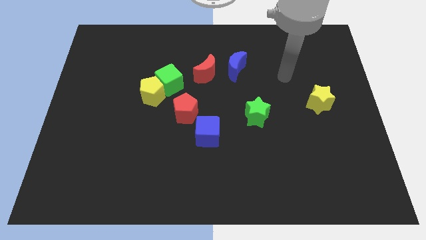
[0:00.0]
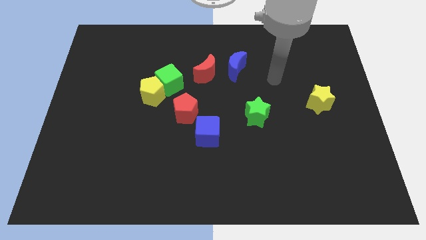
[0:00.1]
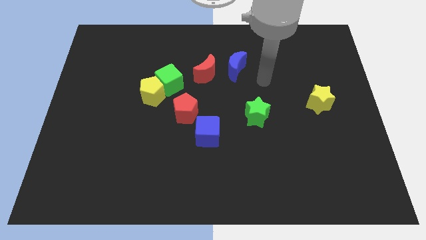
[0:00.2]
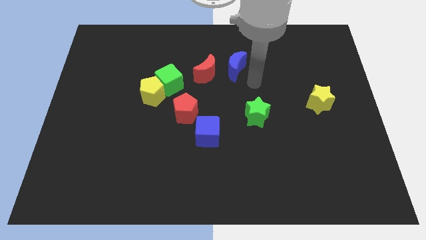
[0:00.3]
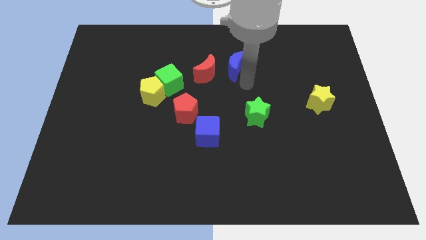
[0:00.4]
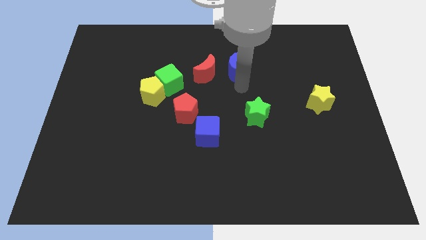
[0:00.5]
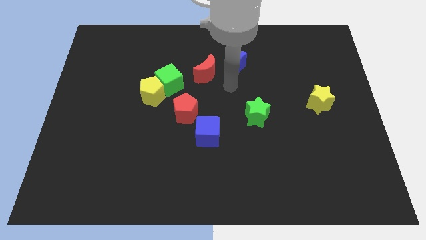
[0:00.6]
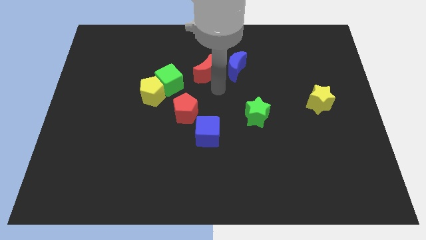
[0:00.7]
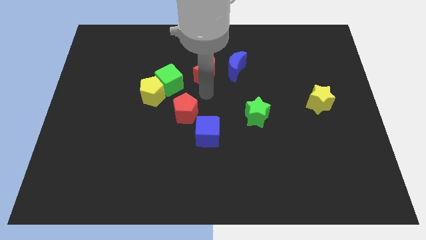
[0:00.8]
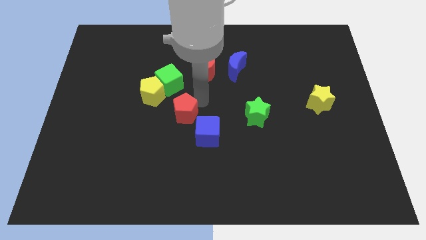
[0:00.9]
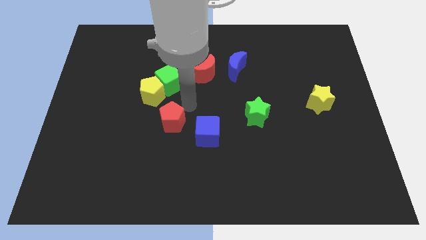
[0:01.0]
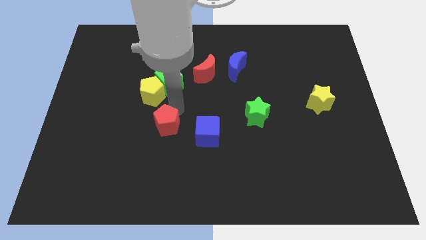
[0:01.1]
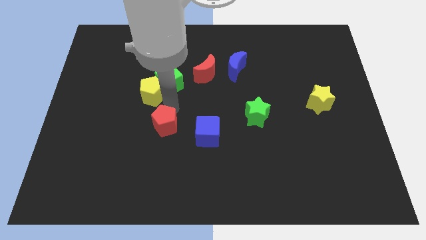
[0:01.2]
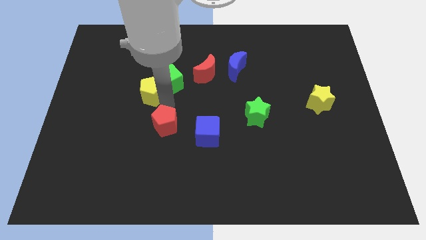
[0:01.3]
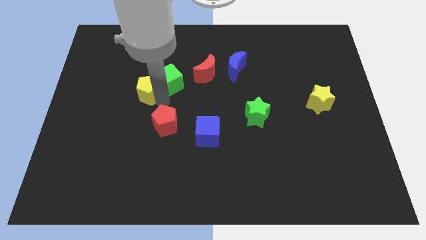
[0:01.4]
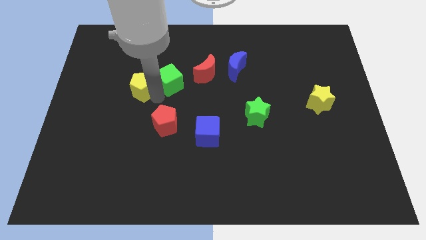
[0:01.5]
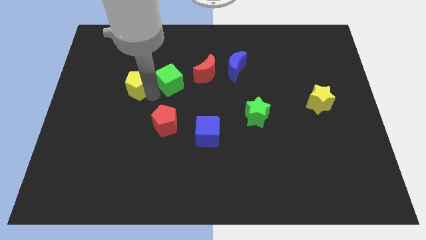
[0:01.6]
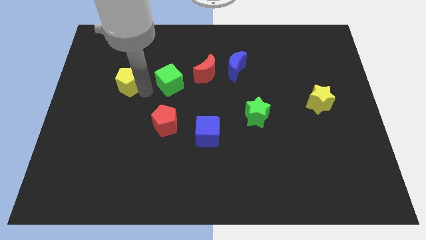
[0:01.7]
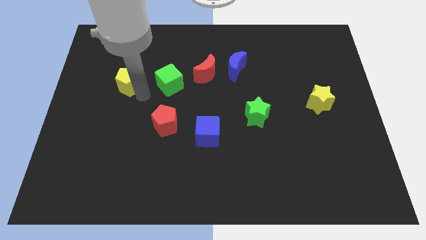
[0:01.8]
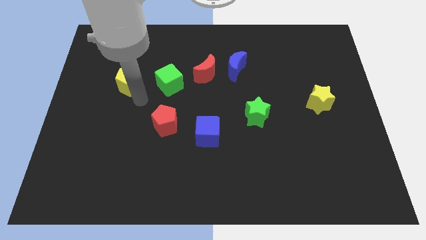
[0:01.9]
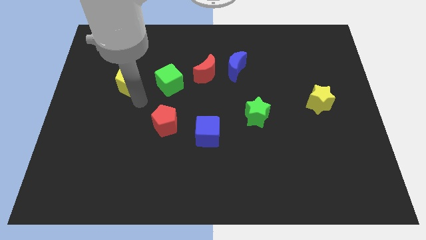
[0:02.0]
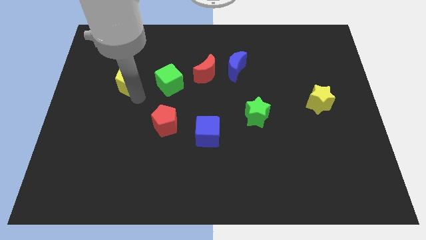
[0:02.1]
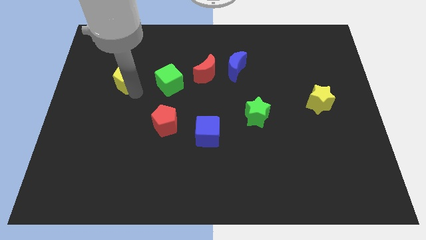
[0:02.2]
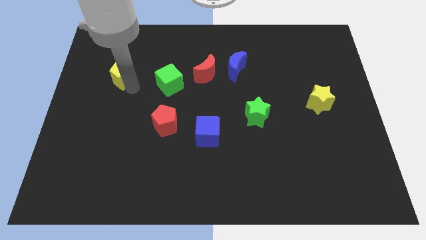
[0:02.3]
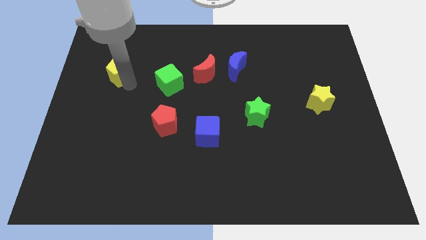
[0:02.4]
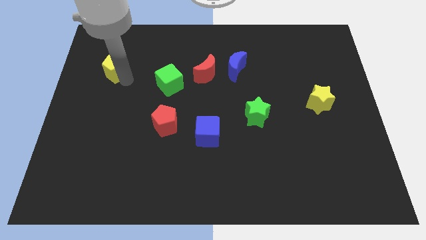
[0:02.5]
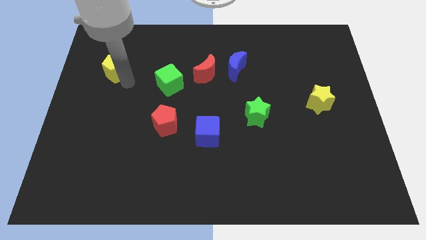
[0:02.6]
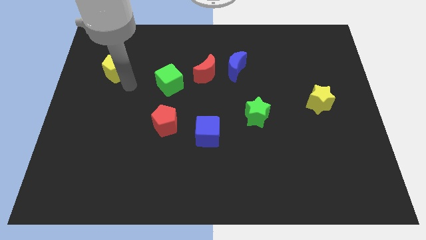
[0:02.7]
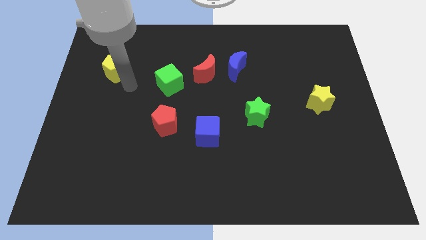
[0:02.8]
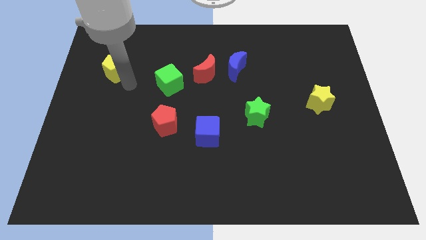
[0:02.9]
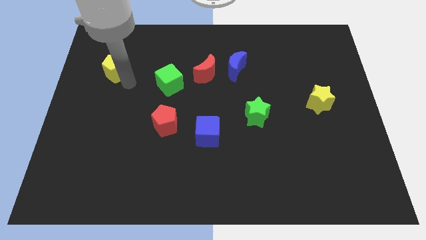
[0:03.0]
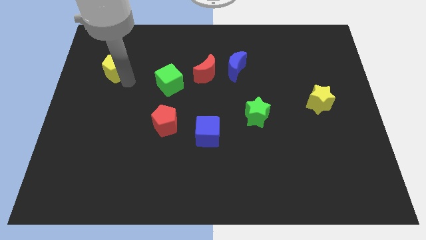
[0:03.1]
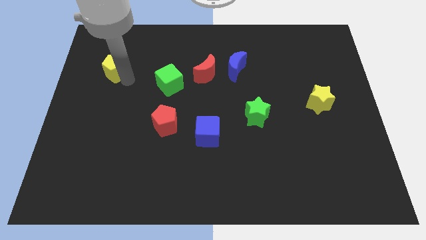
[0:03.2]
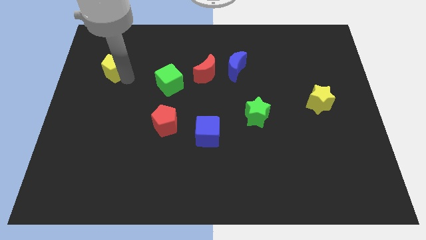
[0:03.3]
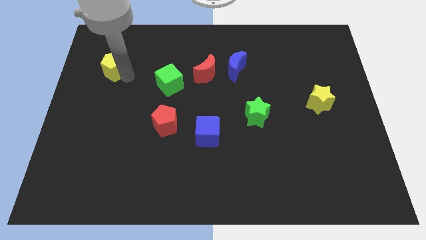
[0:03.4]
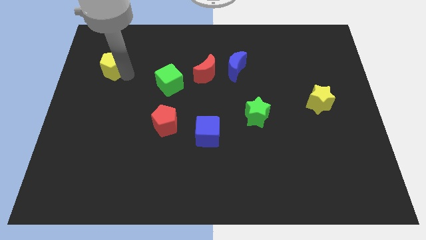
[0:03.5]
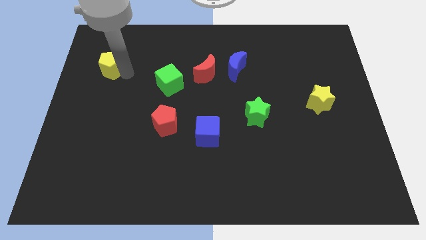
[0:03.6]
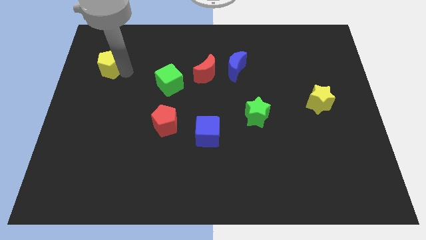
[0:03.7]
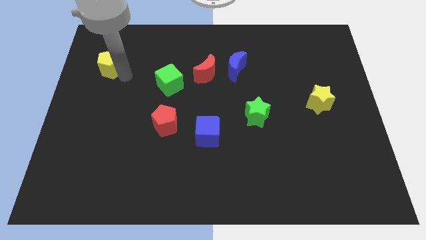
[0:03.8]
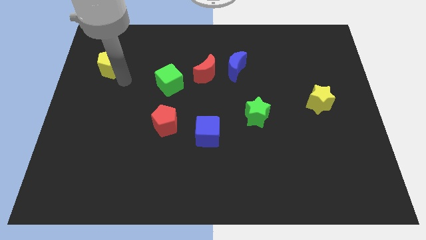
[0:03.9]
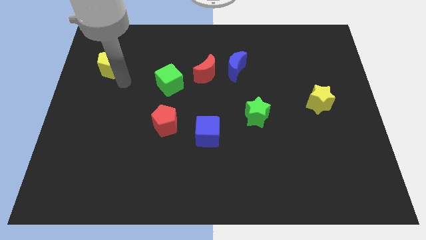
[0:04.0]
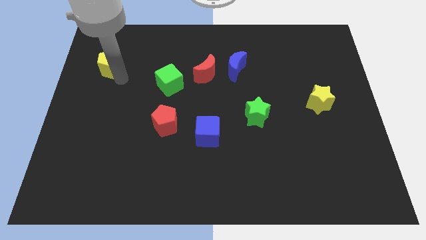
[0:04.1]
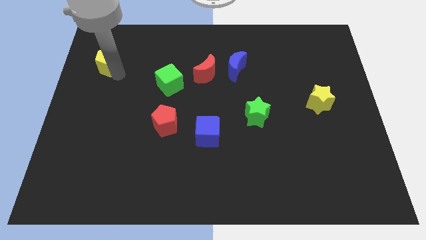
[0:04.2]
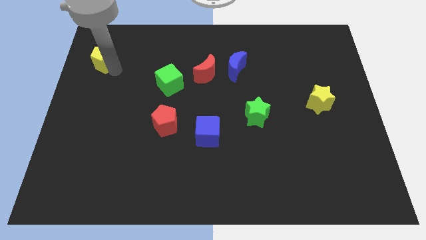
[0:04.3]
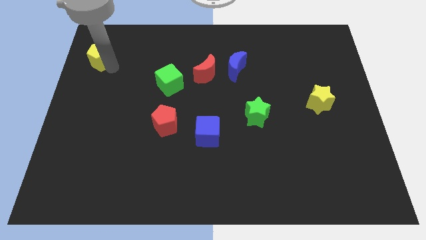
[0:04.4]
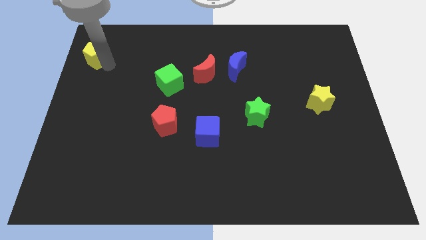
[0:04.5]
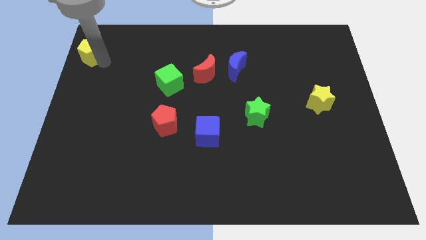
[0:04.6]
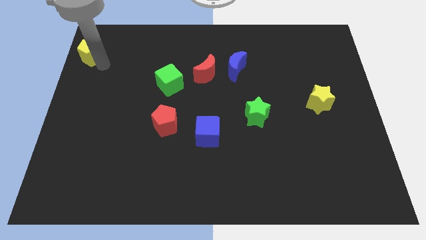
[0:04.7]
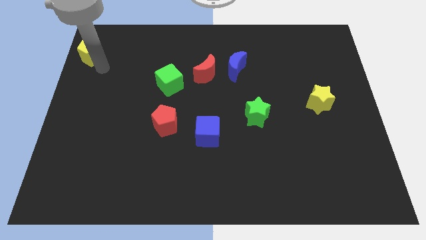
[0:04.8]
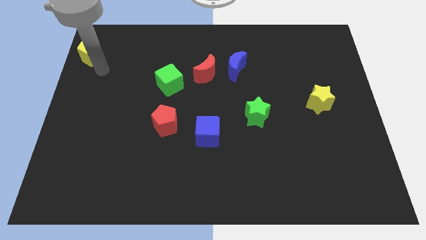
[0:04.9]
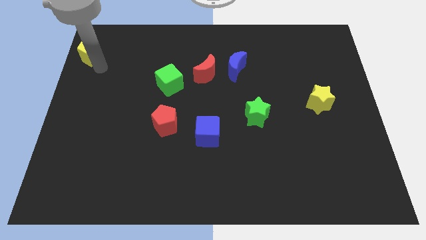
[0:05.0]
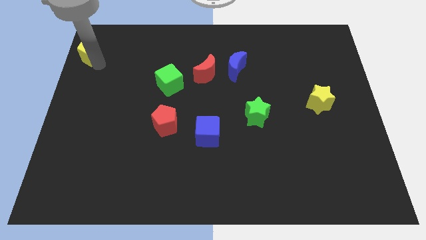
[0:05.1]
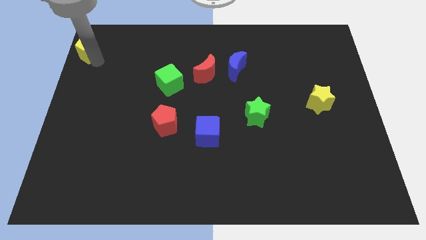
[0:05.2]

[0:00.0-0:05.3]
put the yellow pentagon to the upper left corner
